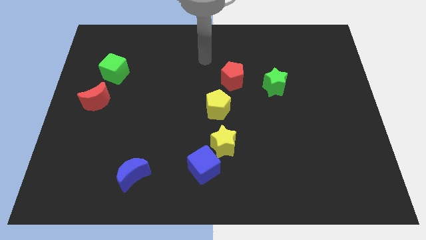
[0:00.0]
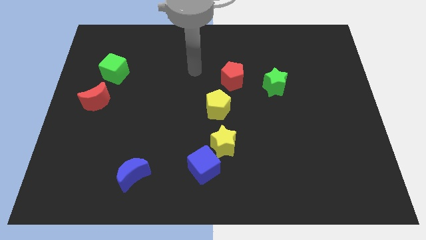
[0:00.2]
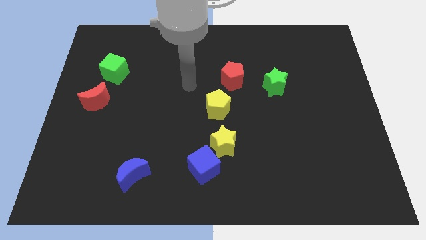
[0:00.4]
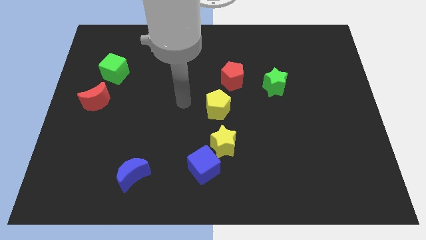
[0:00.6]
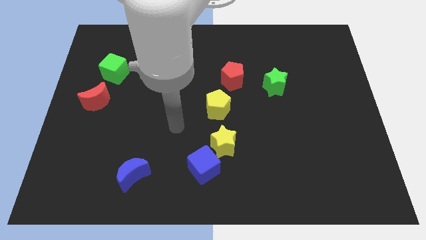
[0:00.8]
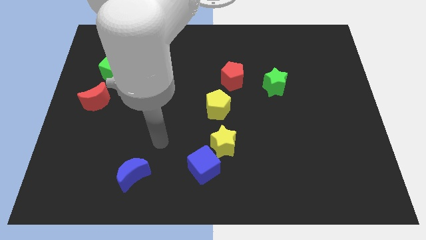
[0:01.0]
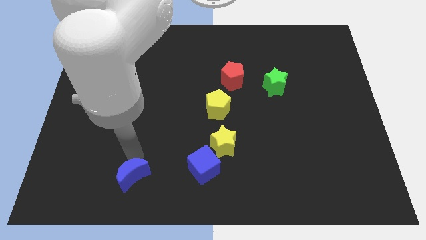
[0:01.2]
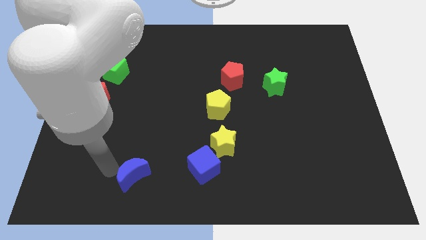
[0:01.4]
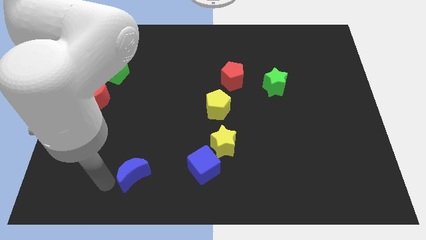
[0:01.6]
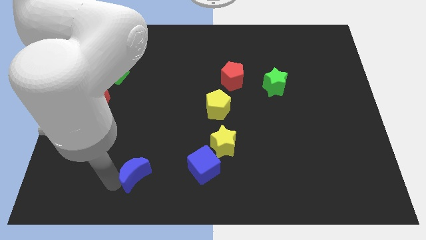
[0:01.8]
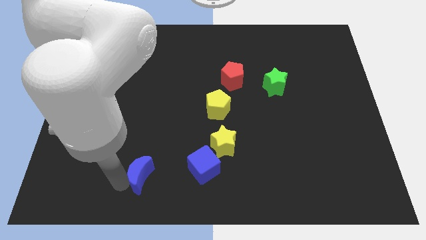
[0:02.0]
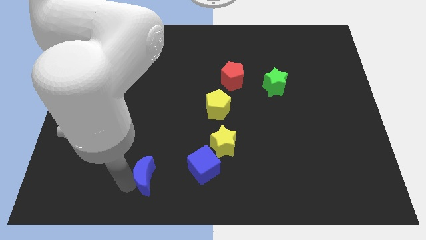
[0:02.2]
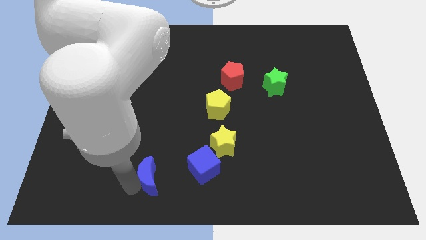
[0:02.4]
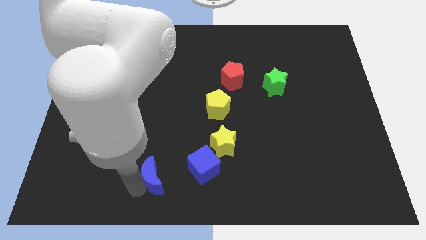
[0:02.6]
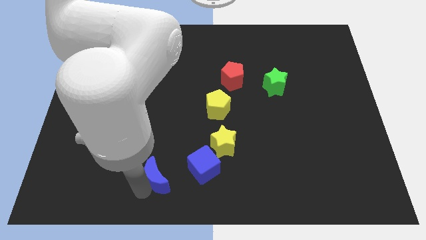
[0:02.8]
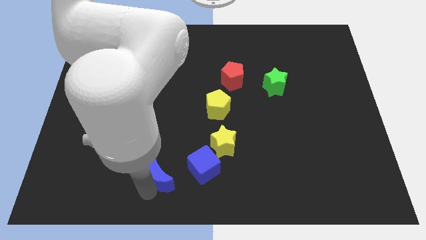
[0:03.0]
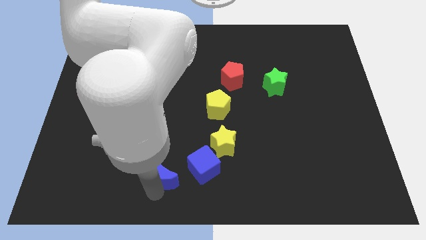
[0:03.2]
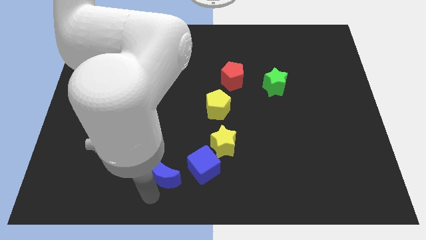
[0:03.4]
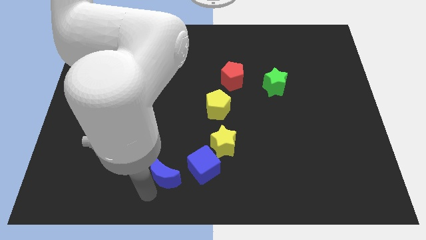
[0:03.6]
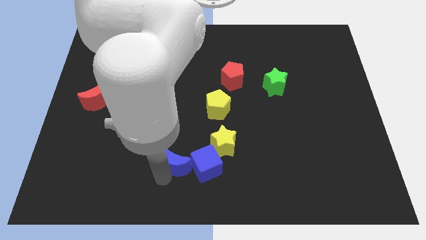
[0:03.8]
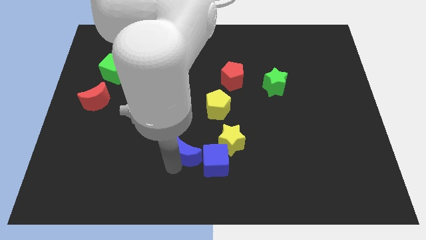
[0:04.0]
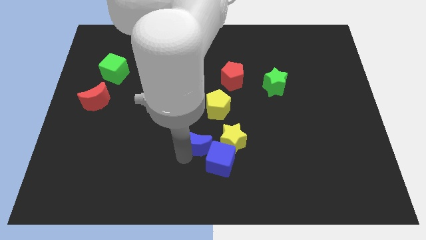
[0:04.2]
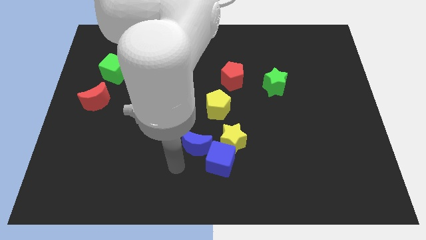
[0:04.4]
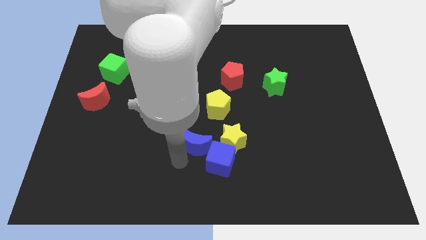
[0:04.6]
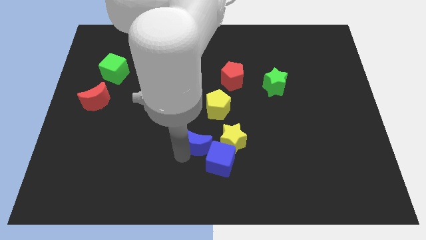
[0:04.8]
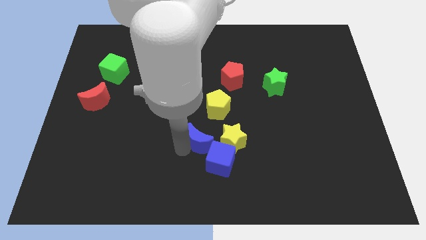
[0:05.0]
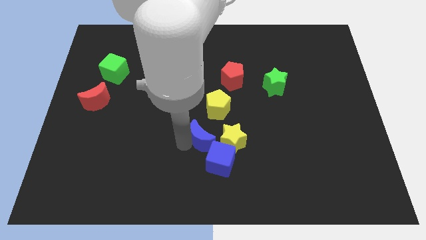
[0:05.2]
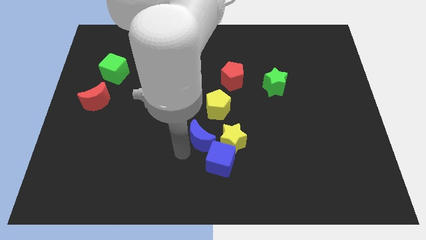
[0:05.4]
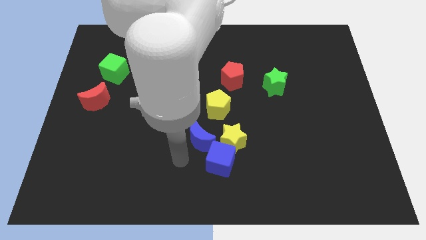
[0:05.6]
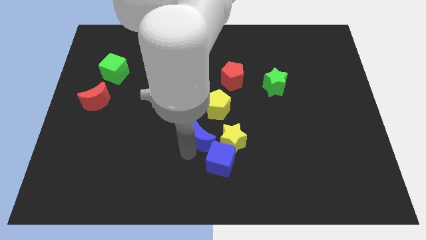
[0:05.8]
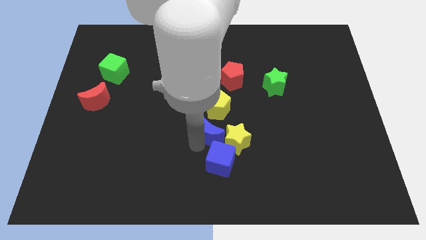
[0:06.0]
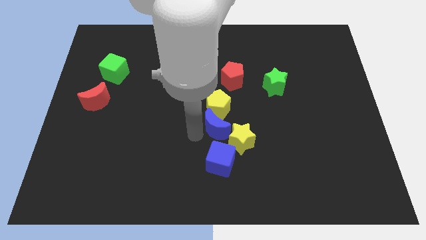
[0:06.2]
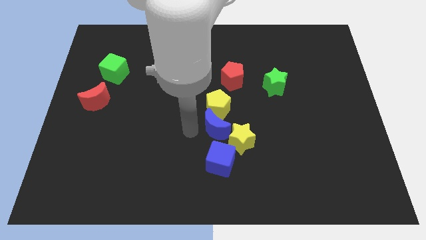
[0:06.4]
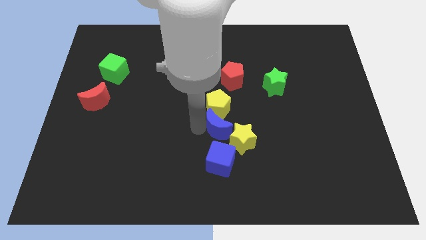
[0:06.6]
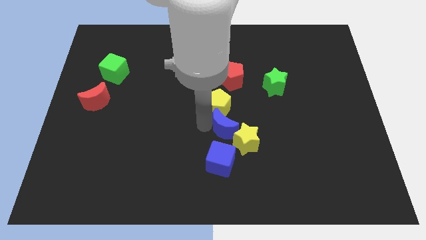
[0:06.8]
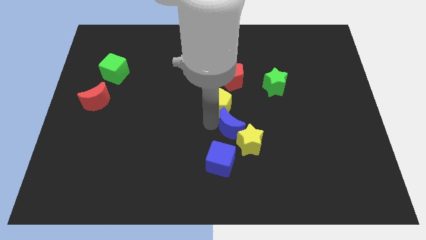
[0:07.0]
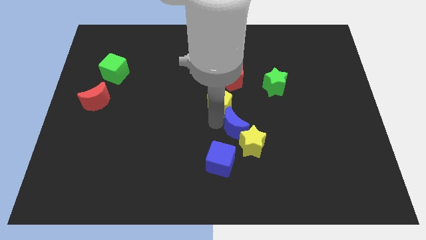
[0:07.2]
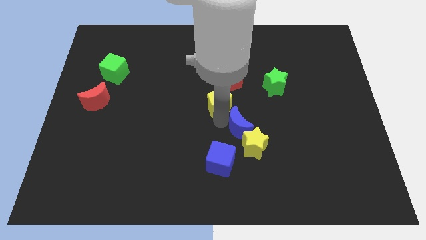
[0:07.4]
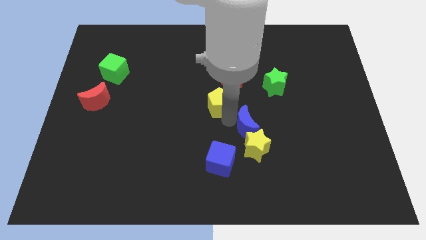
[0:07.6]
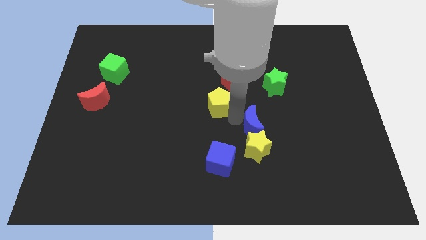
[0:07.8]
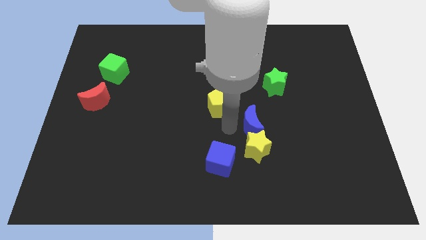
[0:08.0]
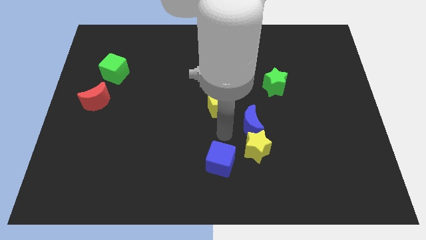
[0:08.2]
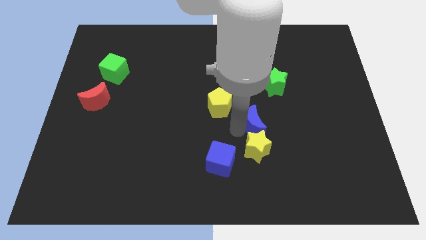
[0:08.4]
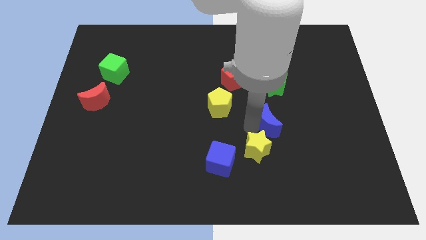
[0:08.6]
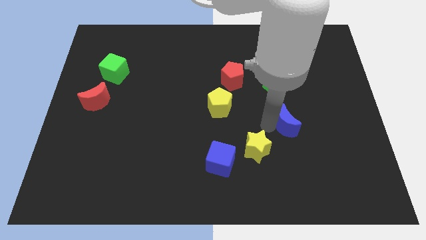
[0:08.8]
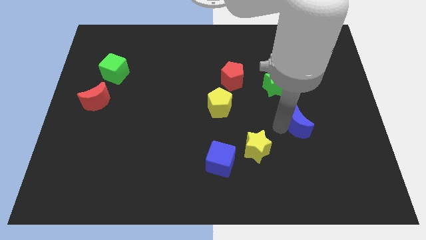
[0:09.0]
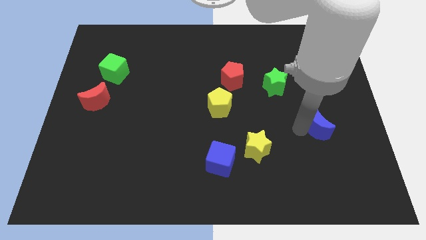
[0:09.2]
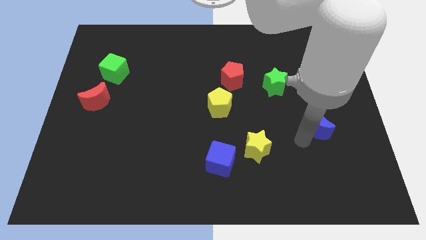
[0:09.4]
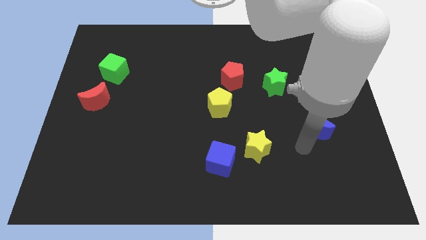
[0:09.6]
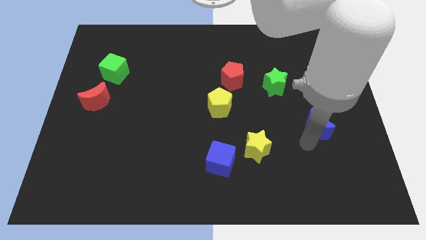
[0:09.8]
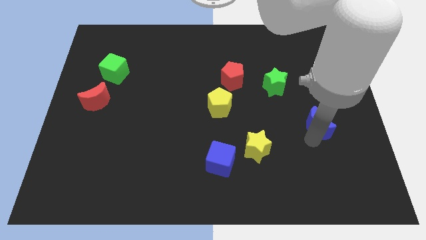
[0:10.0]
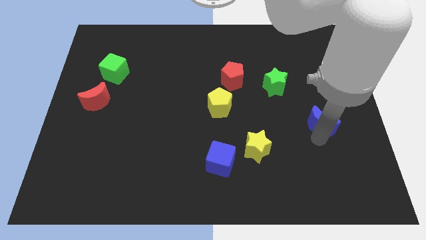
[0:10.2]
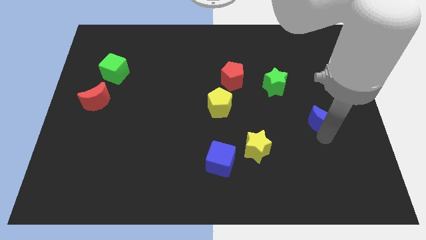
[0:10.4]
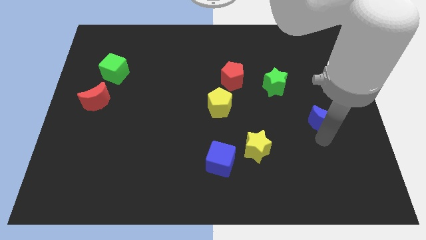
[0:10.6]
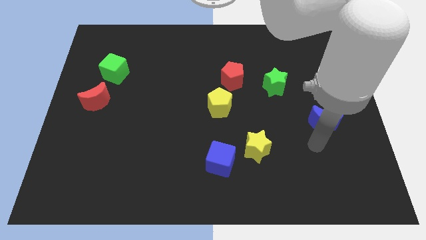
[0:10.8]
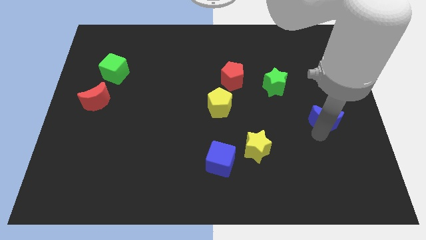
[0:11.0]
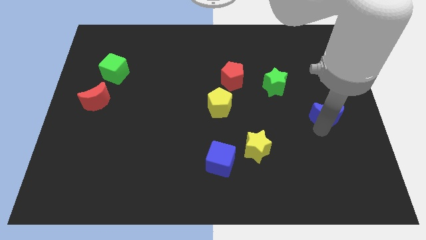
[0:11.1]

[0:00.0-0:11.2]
put the blue moon to the right side
